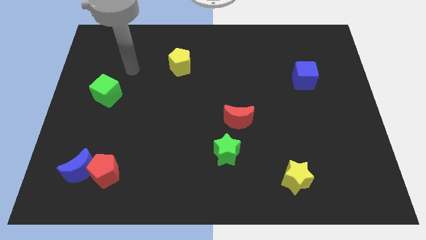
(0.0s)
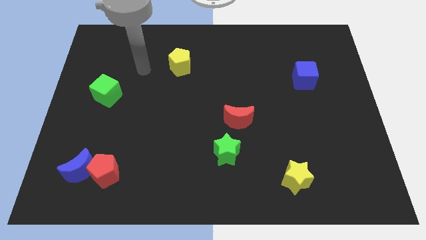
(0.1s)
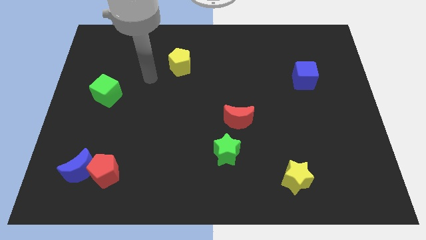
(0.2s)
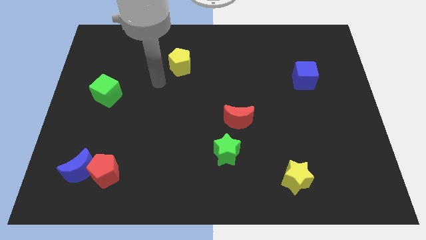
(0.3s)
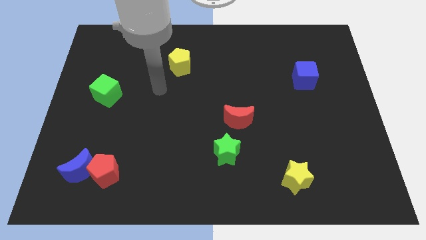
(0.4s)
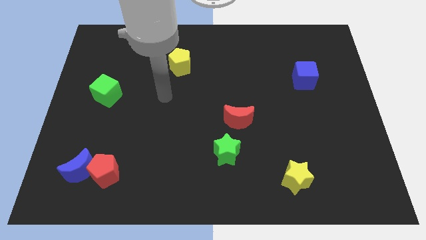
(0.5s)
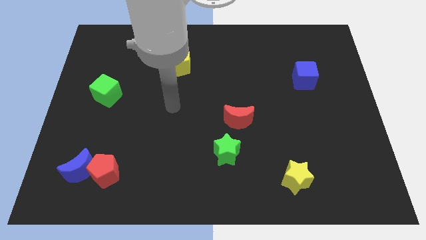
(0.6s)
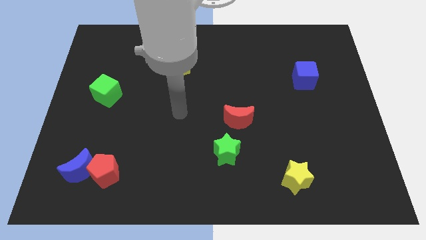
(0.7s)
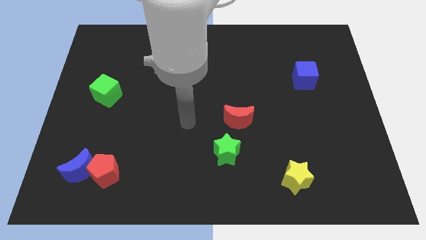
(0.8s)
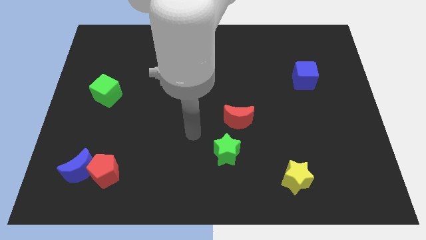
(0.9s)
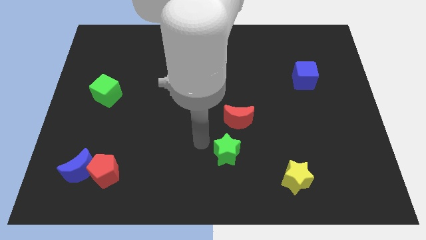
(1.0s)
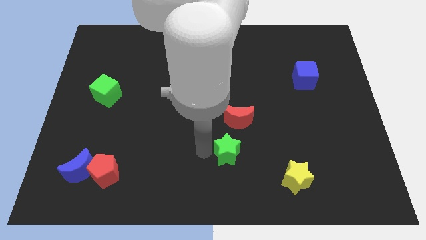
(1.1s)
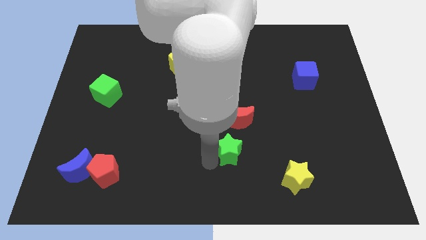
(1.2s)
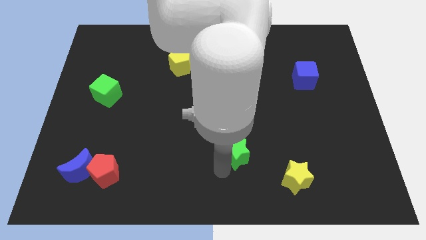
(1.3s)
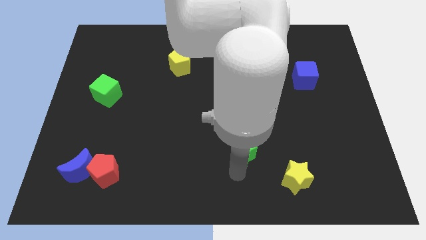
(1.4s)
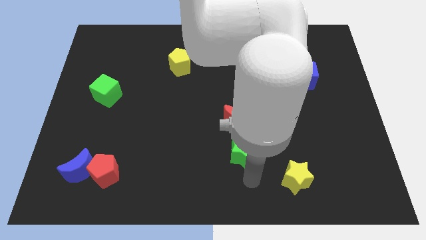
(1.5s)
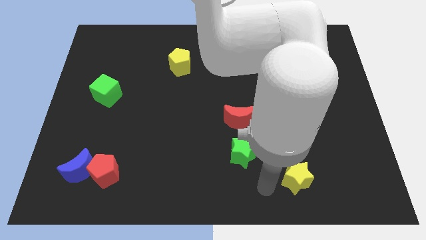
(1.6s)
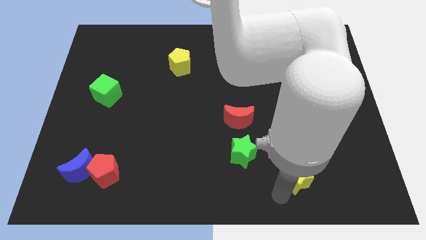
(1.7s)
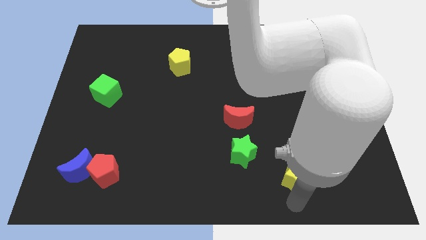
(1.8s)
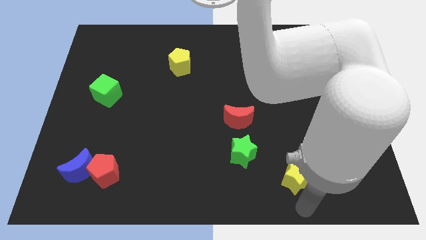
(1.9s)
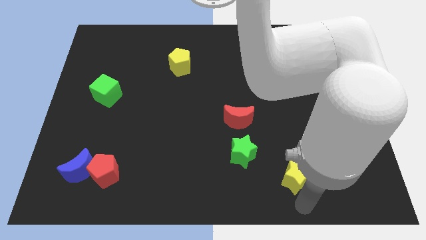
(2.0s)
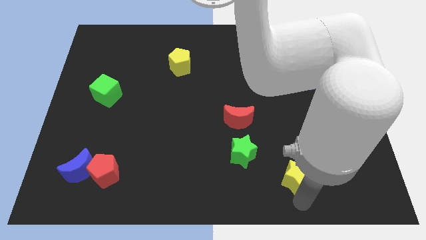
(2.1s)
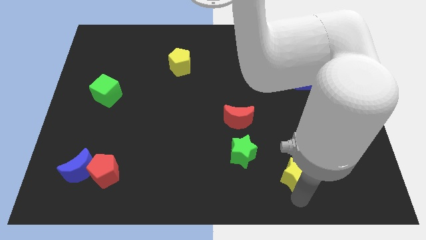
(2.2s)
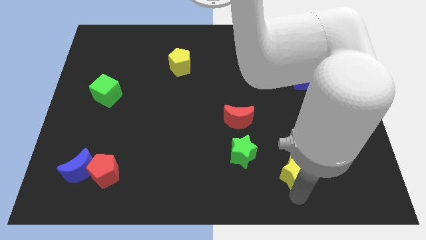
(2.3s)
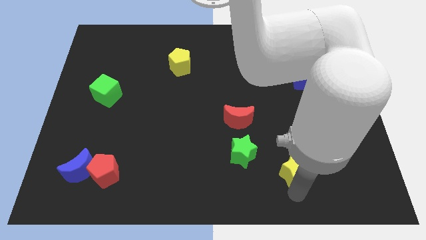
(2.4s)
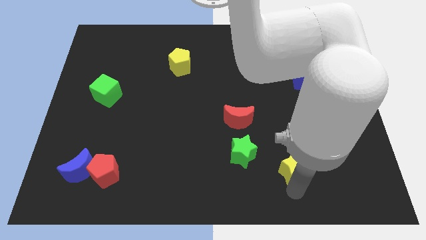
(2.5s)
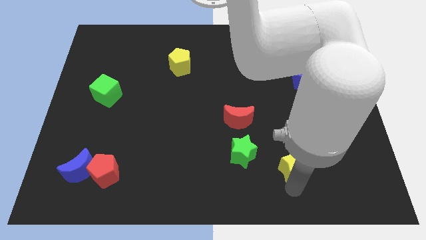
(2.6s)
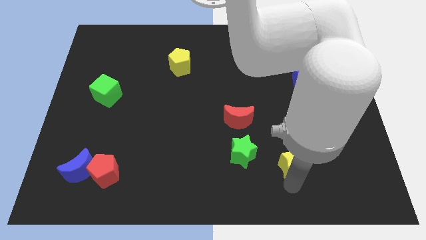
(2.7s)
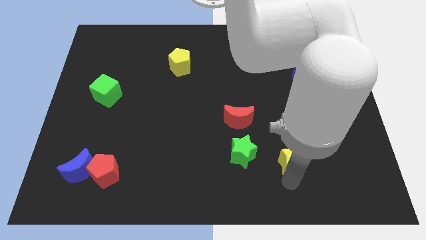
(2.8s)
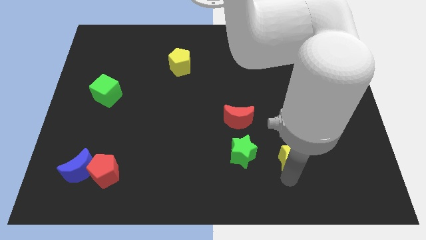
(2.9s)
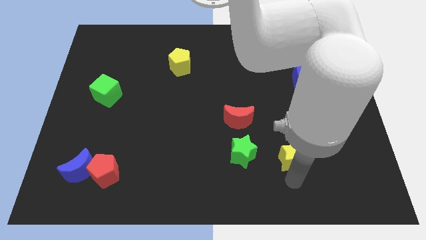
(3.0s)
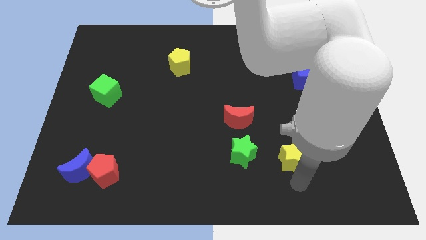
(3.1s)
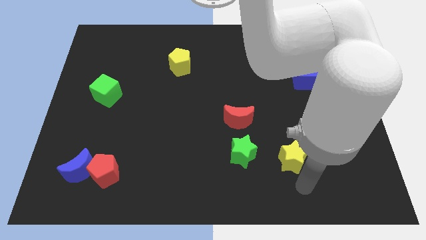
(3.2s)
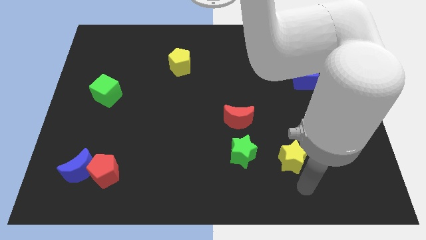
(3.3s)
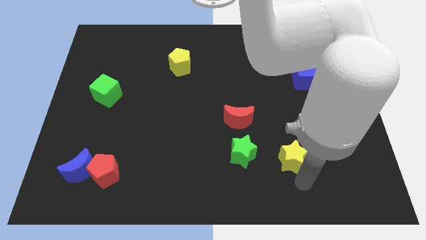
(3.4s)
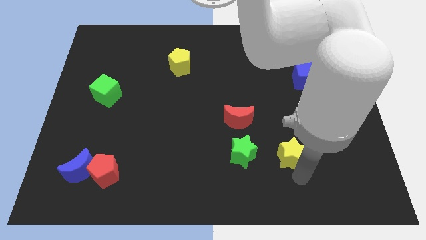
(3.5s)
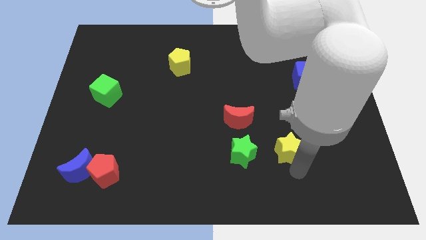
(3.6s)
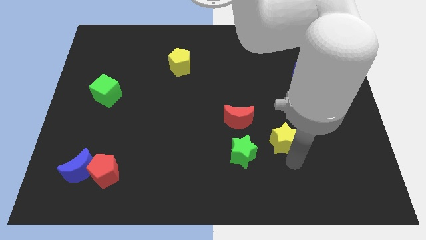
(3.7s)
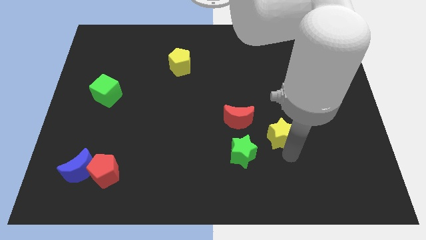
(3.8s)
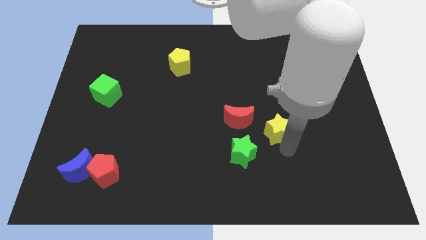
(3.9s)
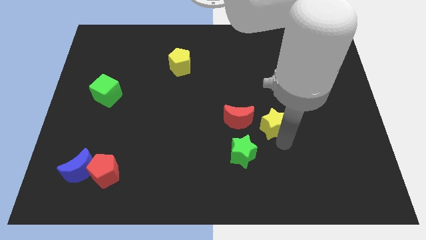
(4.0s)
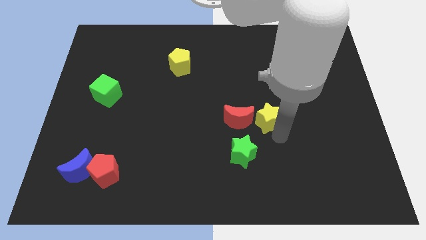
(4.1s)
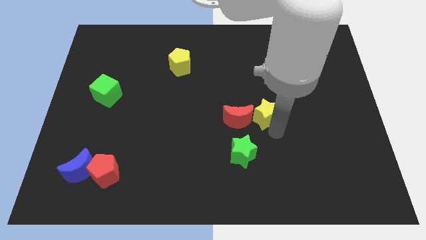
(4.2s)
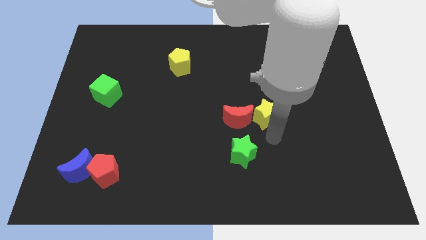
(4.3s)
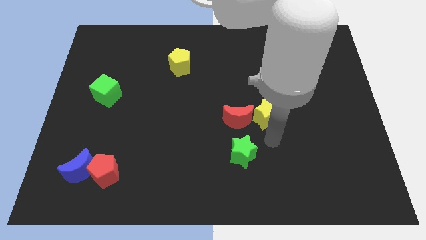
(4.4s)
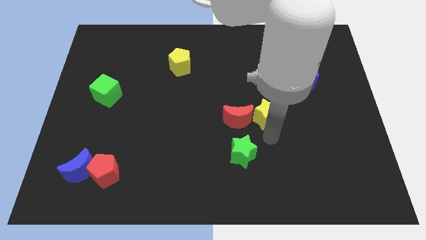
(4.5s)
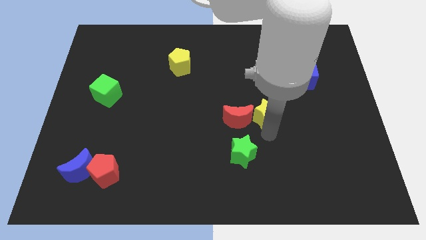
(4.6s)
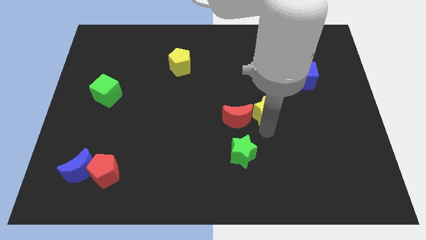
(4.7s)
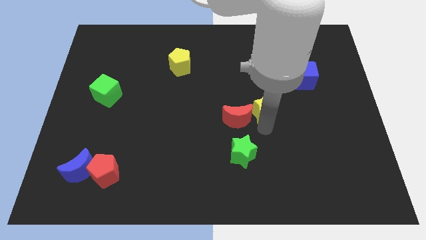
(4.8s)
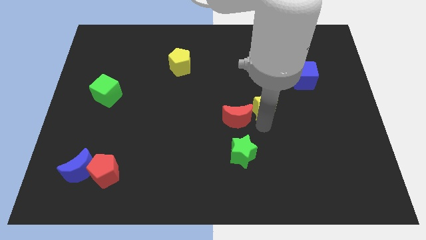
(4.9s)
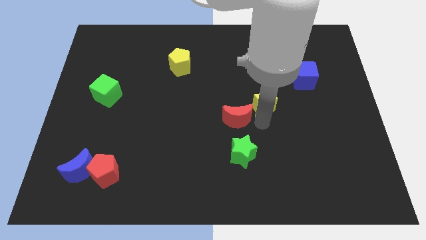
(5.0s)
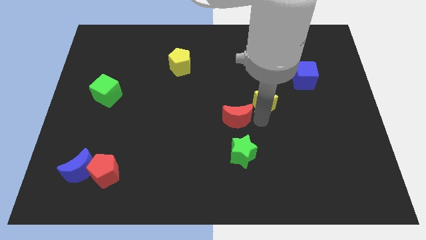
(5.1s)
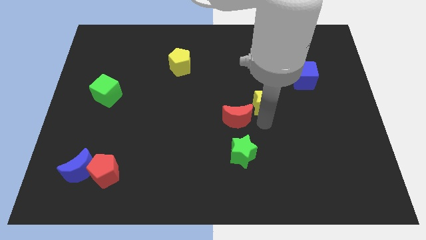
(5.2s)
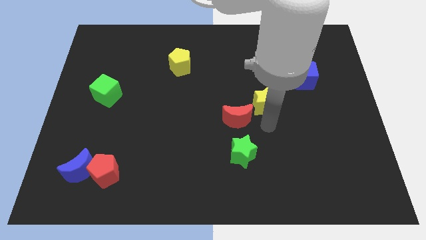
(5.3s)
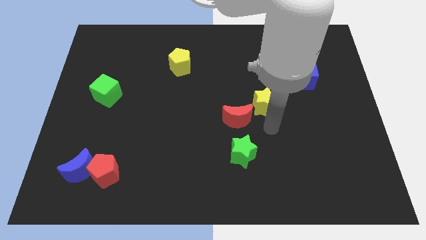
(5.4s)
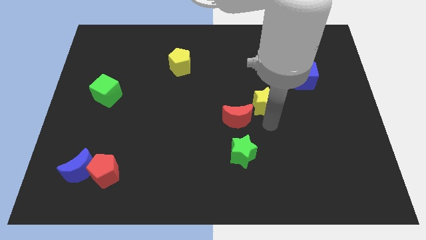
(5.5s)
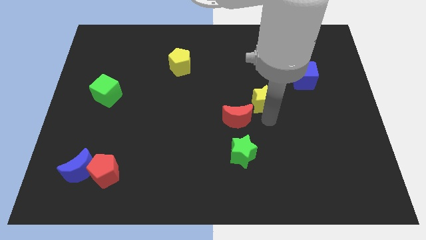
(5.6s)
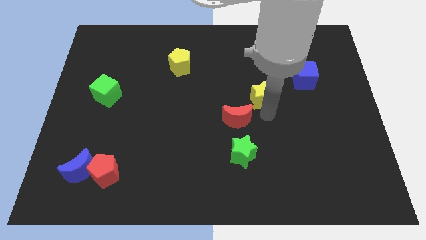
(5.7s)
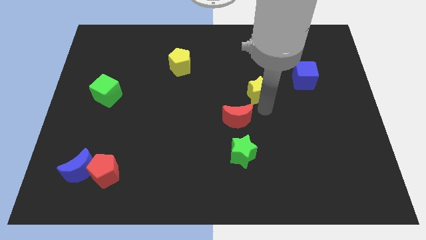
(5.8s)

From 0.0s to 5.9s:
move the yellow star left of the blue cube

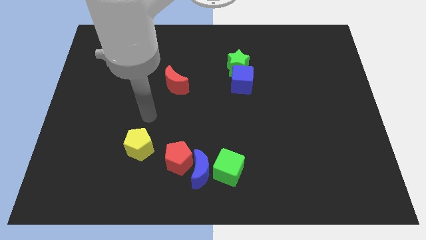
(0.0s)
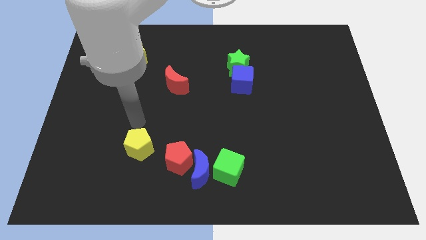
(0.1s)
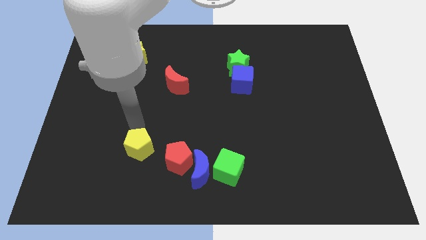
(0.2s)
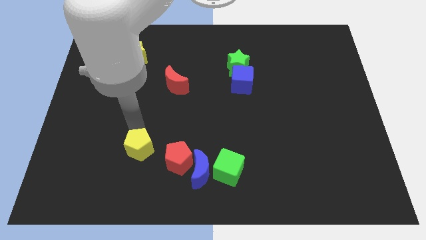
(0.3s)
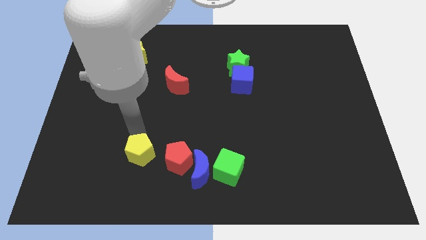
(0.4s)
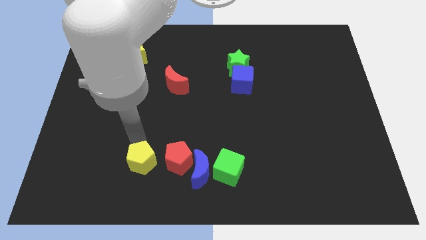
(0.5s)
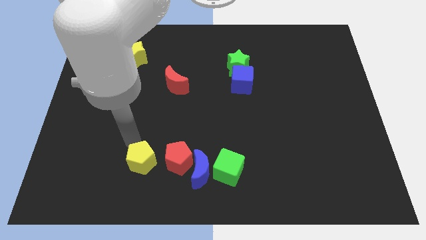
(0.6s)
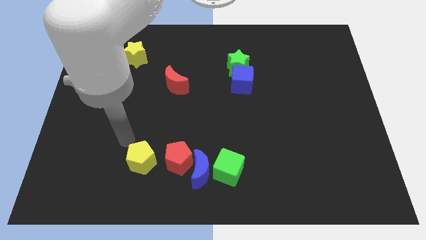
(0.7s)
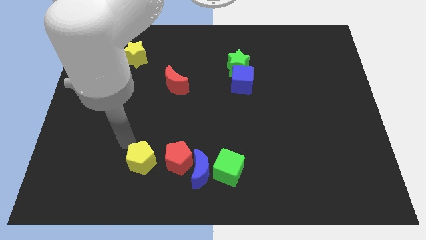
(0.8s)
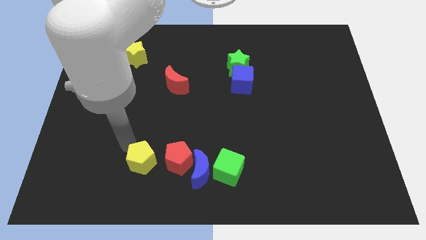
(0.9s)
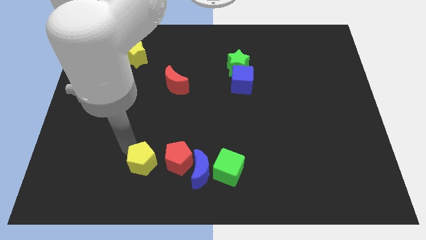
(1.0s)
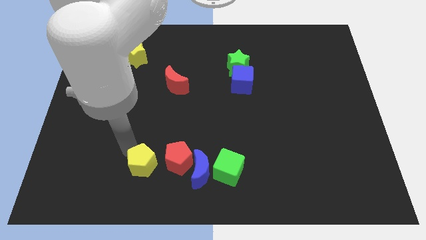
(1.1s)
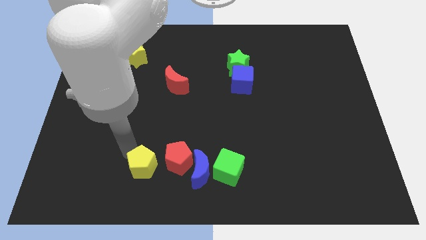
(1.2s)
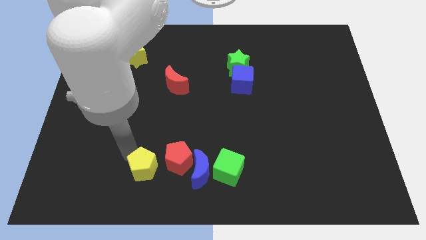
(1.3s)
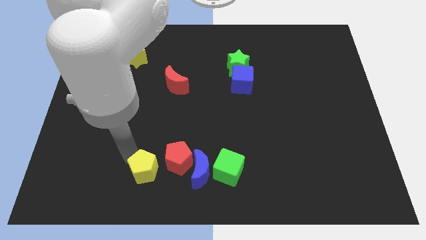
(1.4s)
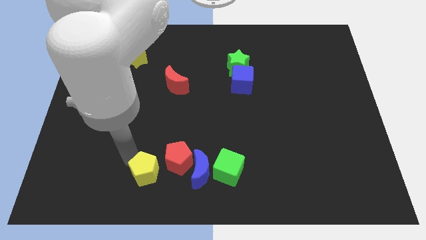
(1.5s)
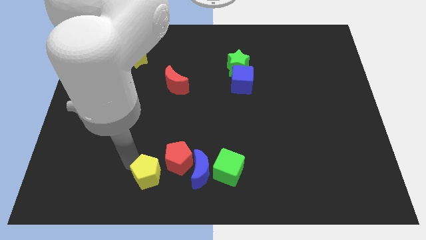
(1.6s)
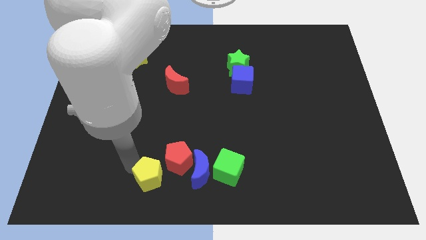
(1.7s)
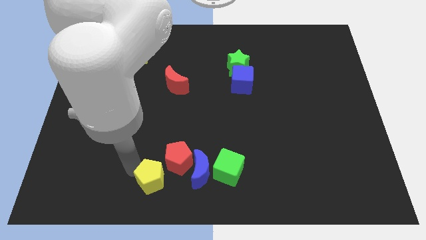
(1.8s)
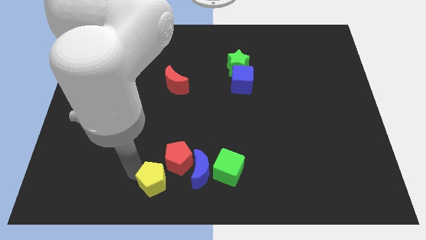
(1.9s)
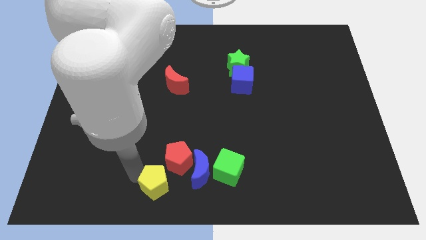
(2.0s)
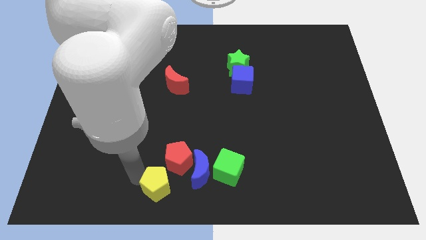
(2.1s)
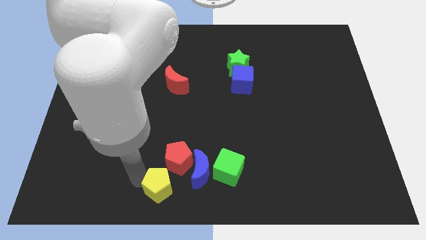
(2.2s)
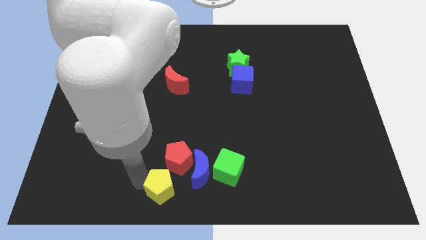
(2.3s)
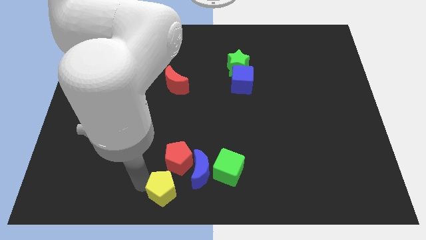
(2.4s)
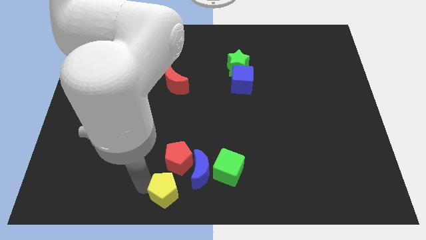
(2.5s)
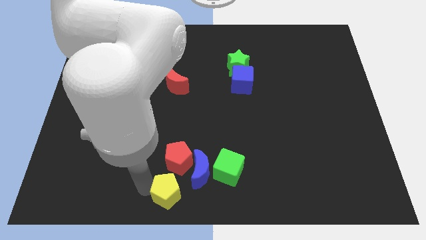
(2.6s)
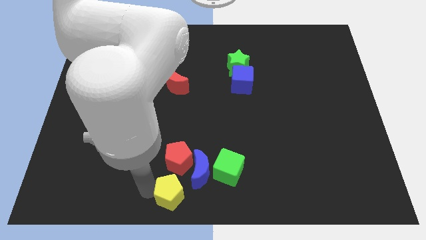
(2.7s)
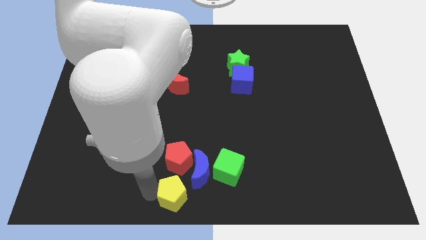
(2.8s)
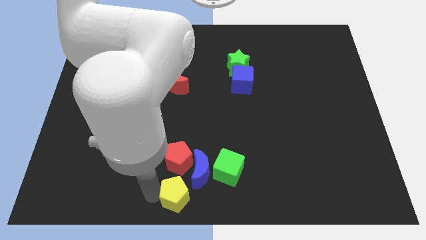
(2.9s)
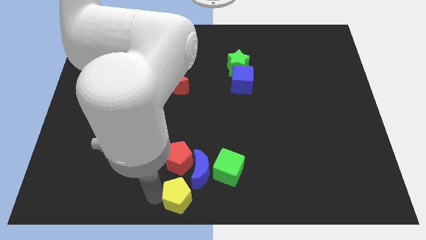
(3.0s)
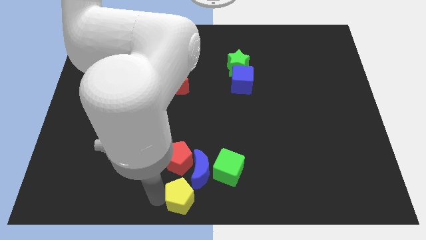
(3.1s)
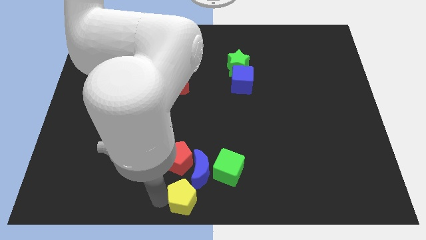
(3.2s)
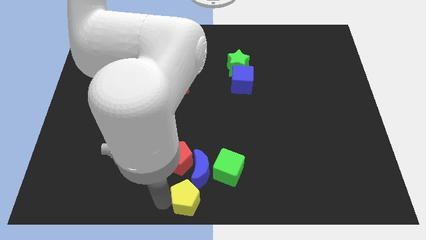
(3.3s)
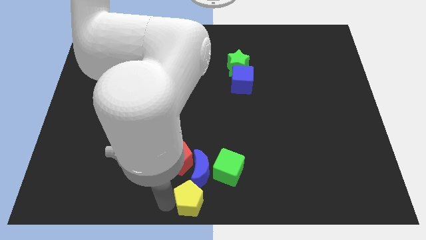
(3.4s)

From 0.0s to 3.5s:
push the yellow pentagon to the bottom right of the red pentagon
